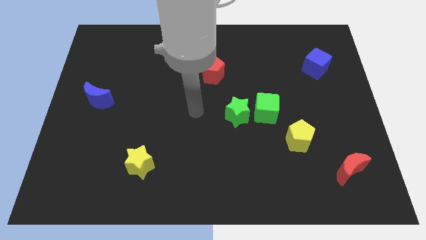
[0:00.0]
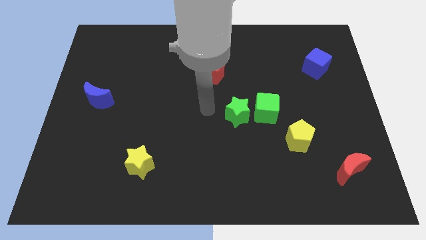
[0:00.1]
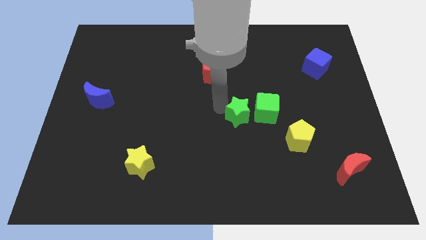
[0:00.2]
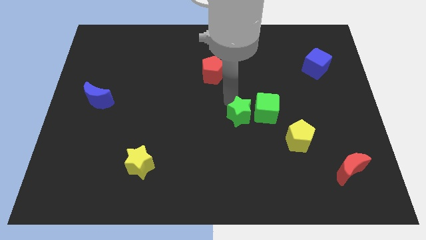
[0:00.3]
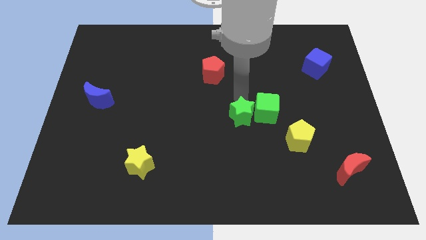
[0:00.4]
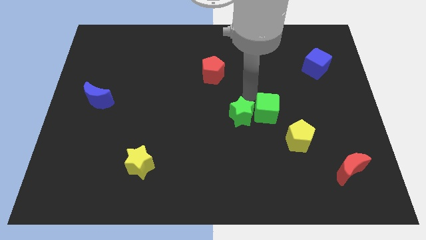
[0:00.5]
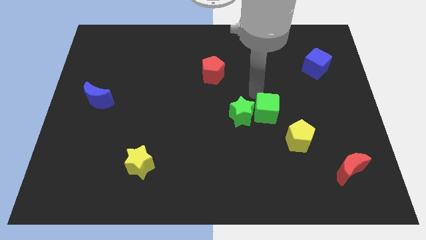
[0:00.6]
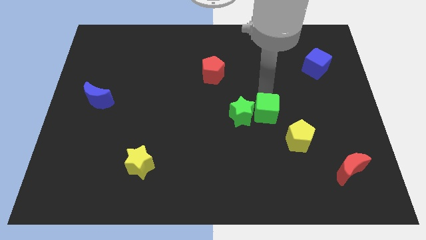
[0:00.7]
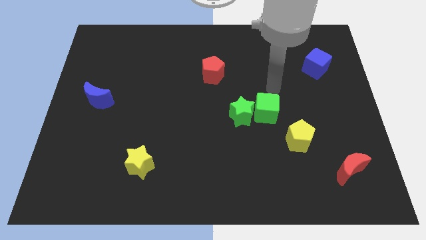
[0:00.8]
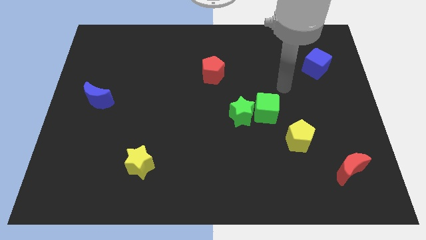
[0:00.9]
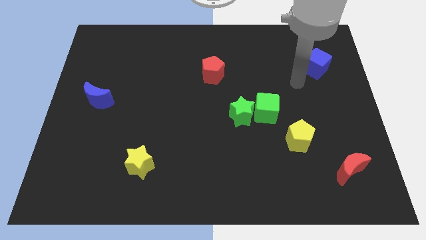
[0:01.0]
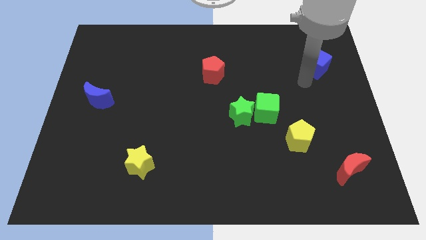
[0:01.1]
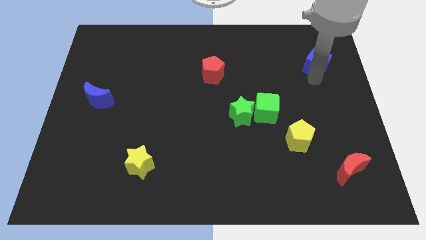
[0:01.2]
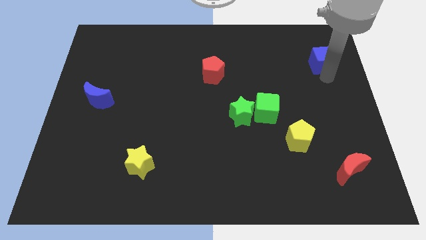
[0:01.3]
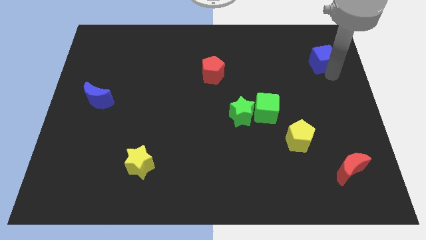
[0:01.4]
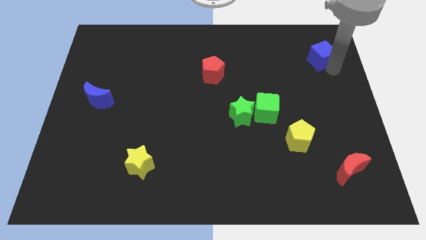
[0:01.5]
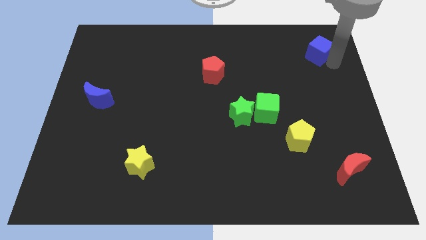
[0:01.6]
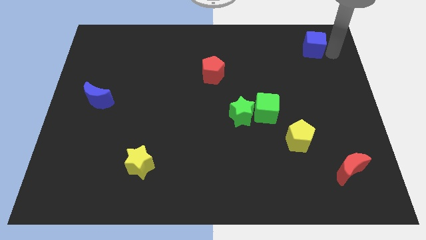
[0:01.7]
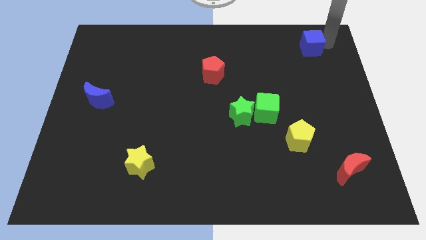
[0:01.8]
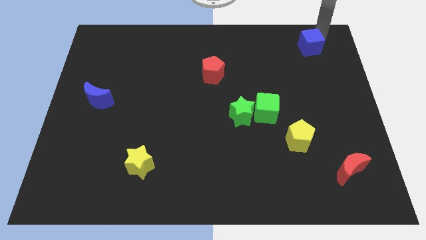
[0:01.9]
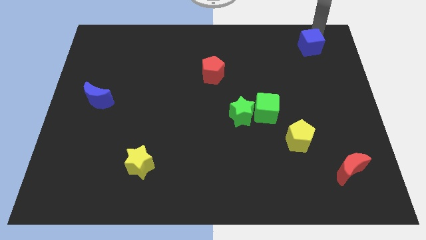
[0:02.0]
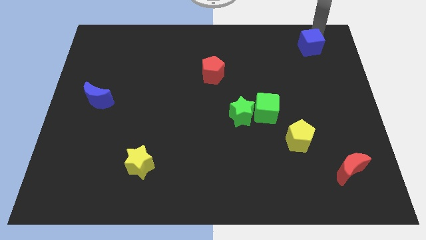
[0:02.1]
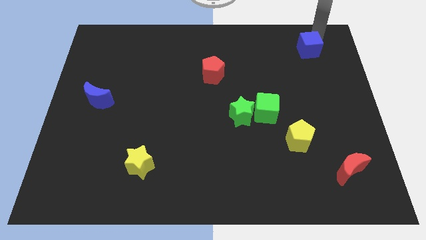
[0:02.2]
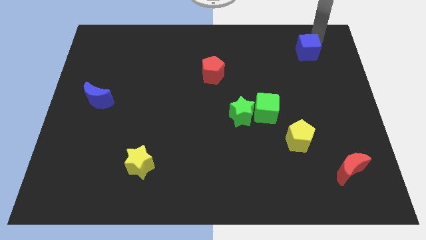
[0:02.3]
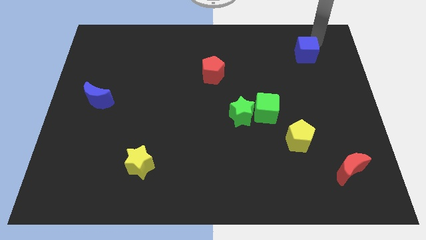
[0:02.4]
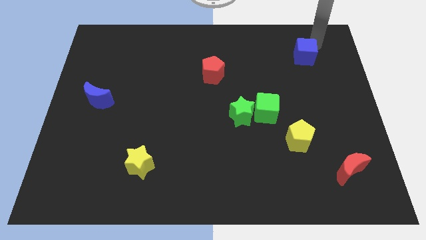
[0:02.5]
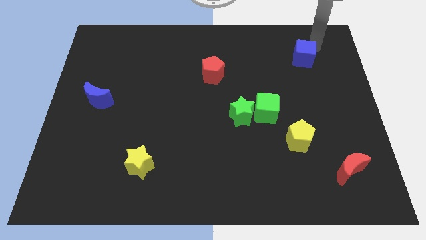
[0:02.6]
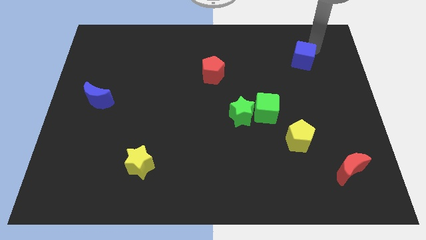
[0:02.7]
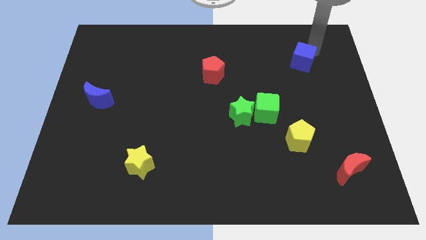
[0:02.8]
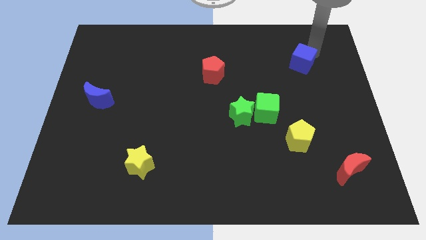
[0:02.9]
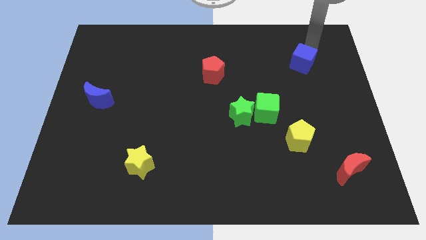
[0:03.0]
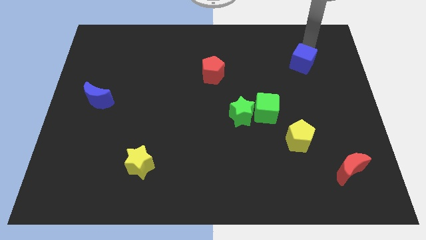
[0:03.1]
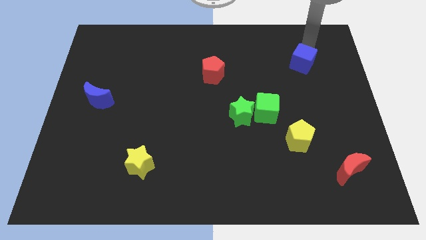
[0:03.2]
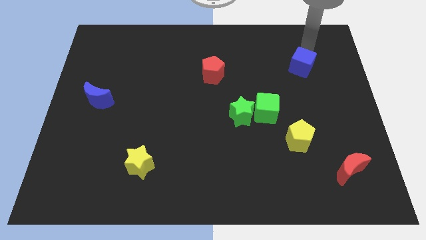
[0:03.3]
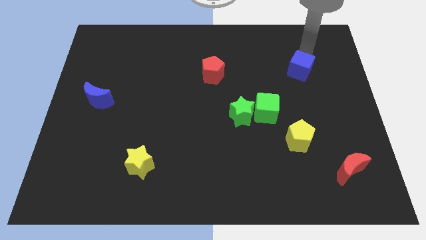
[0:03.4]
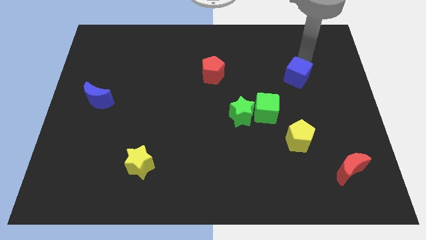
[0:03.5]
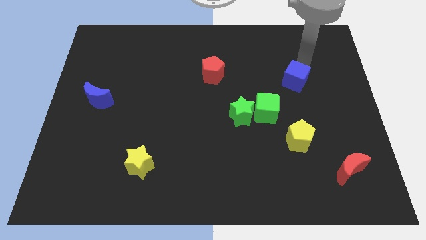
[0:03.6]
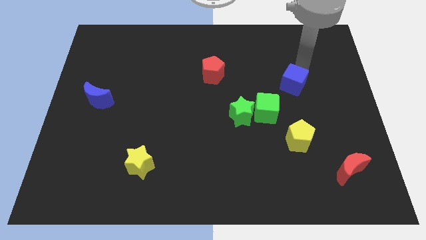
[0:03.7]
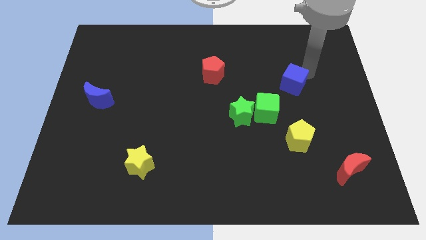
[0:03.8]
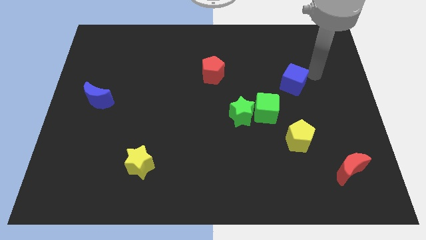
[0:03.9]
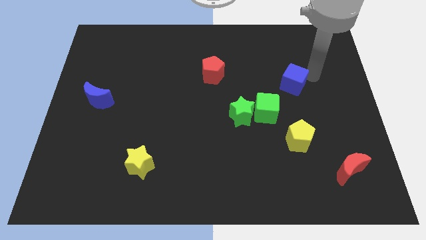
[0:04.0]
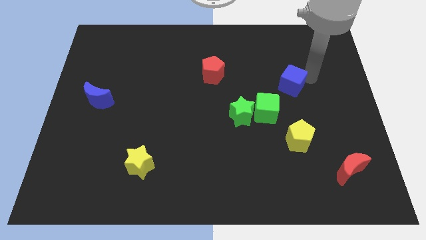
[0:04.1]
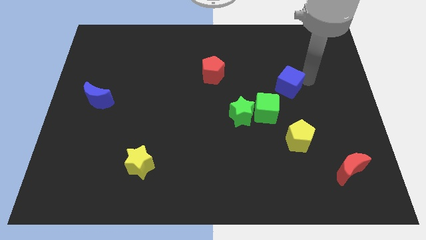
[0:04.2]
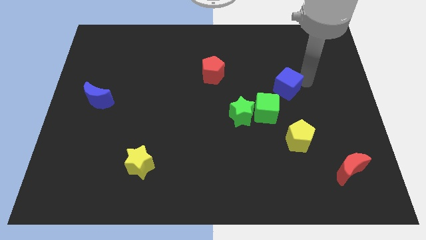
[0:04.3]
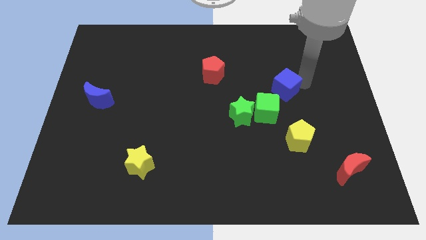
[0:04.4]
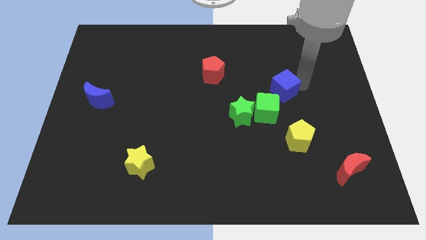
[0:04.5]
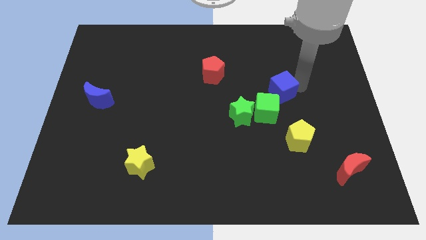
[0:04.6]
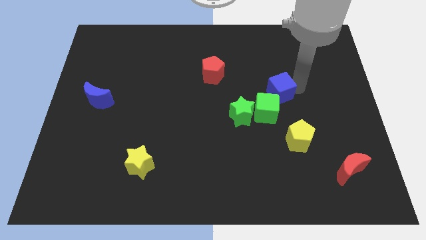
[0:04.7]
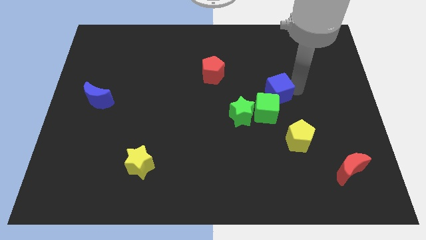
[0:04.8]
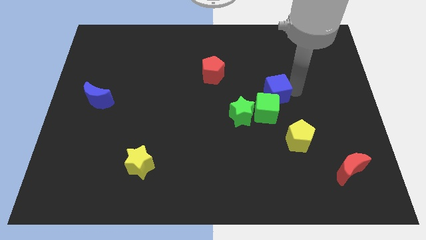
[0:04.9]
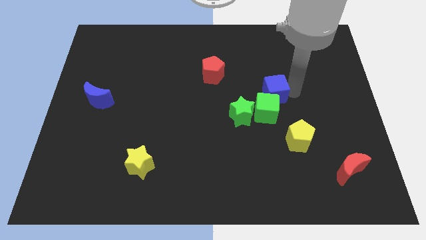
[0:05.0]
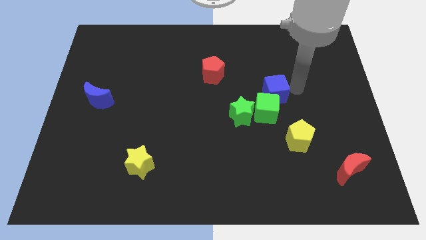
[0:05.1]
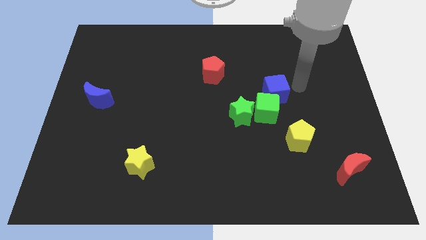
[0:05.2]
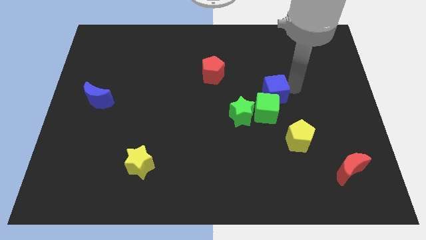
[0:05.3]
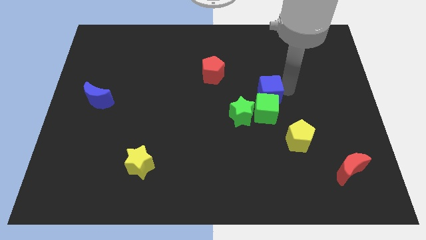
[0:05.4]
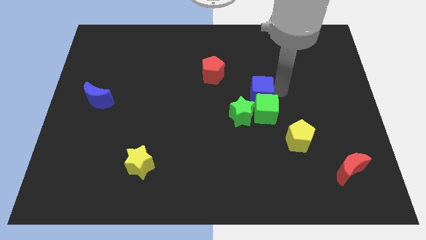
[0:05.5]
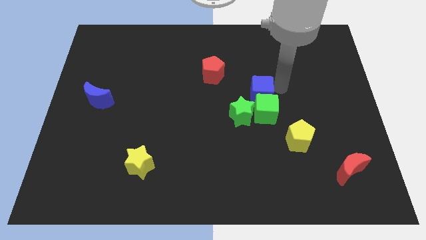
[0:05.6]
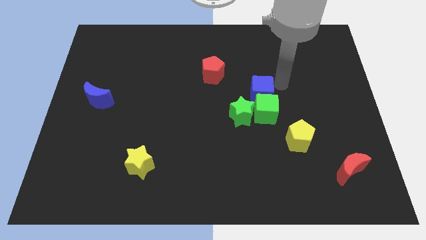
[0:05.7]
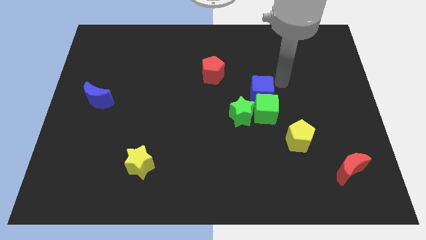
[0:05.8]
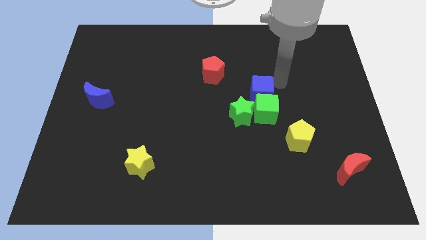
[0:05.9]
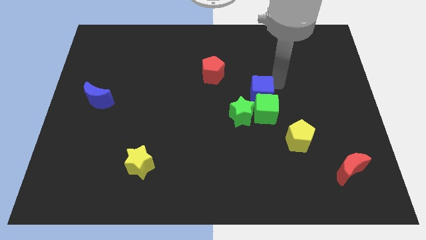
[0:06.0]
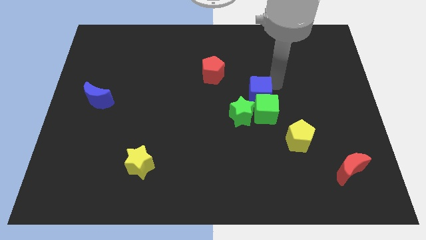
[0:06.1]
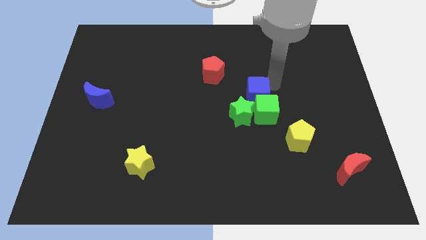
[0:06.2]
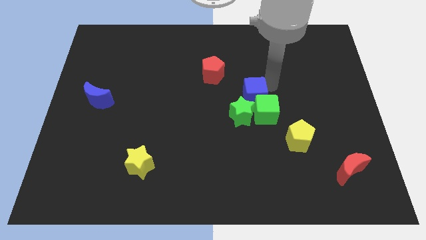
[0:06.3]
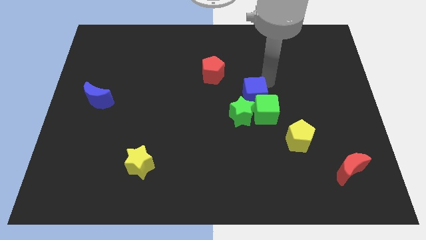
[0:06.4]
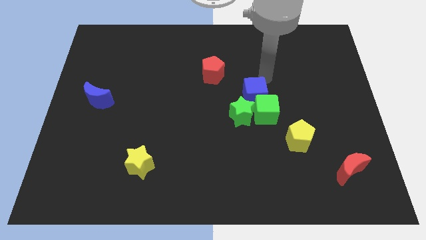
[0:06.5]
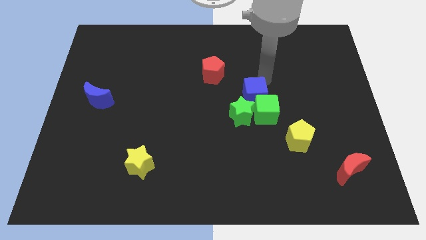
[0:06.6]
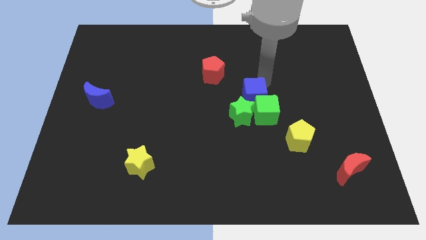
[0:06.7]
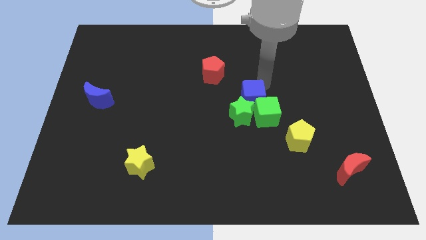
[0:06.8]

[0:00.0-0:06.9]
push the blue cube towards the green star
